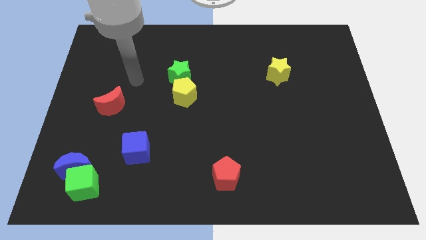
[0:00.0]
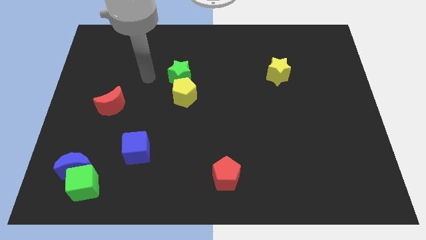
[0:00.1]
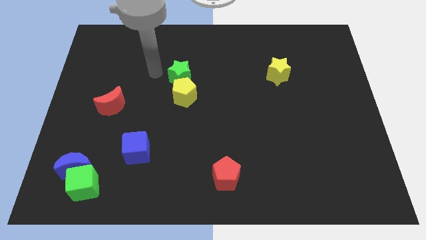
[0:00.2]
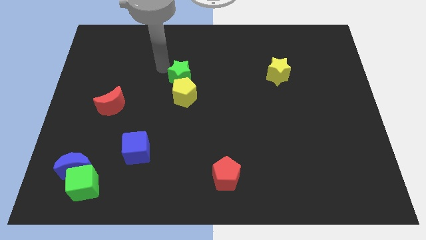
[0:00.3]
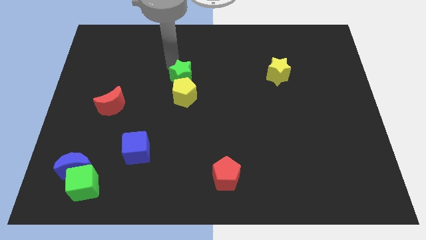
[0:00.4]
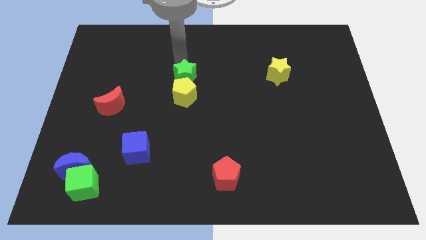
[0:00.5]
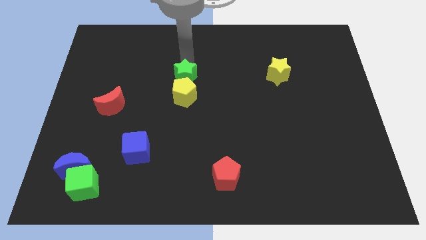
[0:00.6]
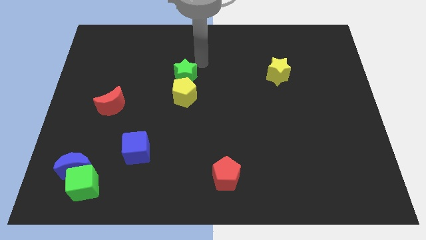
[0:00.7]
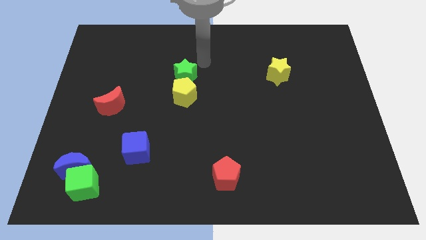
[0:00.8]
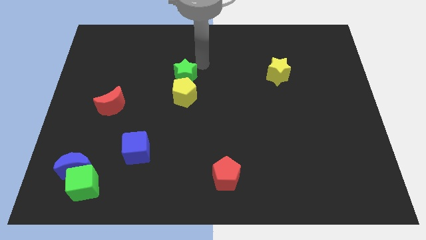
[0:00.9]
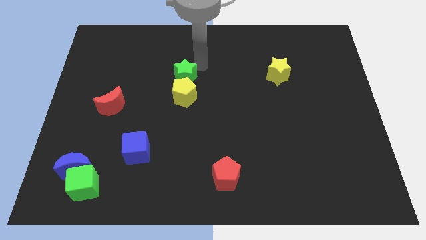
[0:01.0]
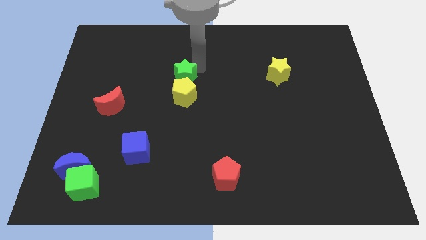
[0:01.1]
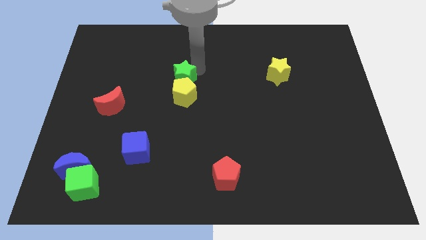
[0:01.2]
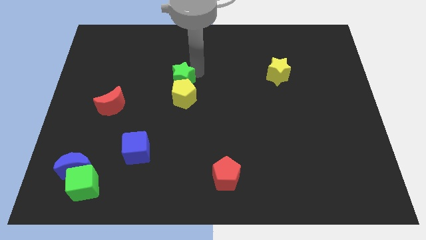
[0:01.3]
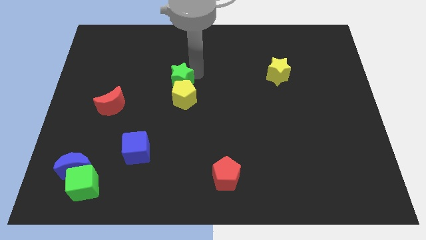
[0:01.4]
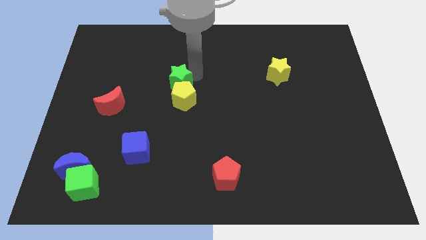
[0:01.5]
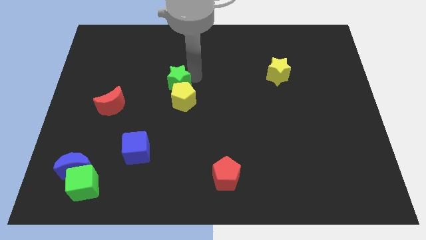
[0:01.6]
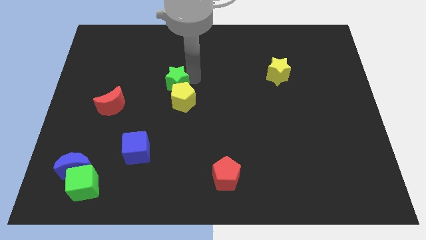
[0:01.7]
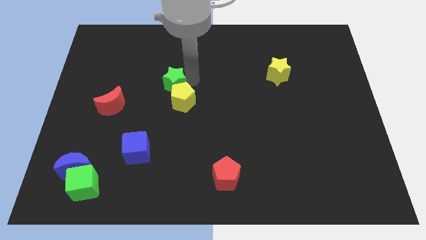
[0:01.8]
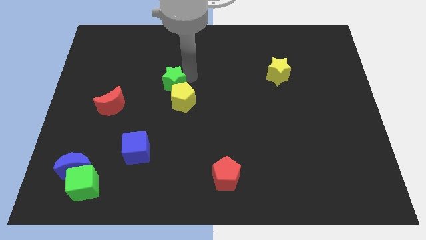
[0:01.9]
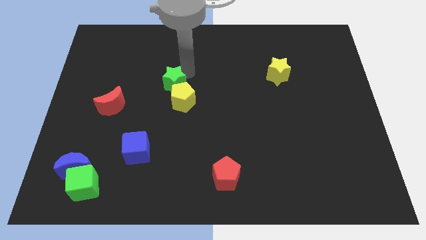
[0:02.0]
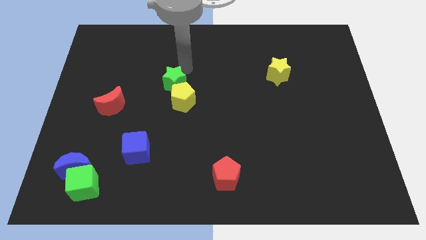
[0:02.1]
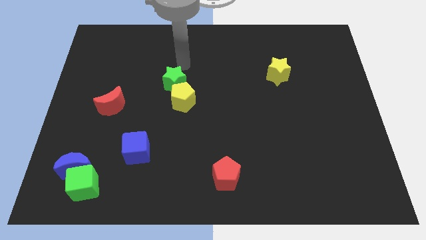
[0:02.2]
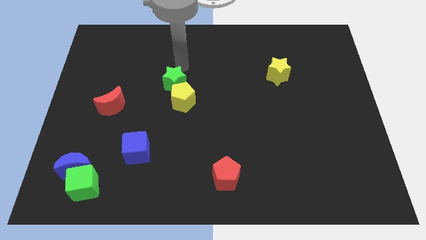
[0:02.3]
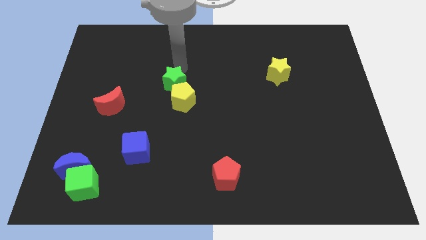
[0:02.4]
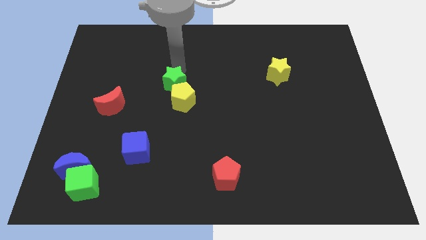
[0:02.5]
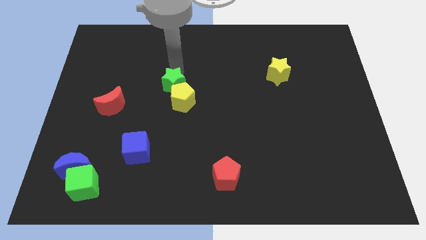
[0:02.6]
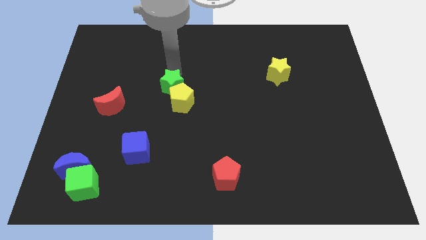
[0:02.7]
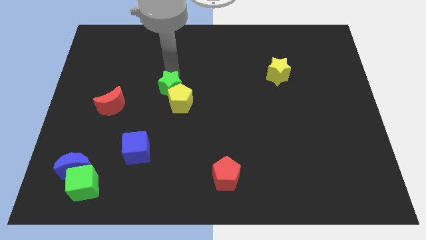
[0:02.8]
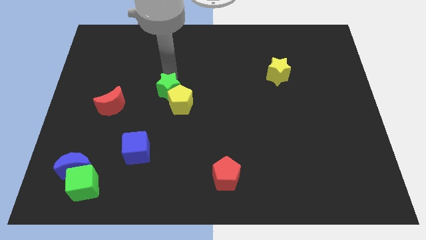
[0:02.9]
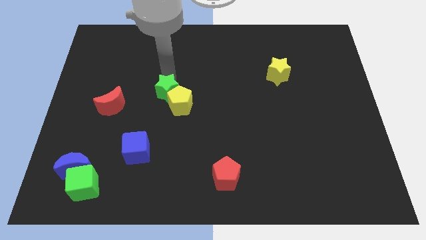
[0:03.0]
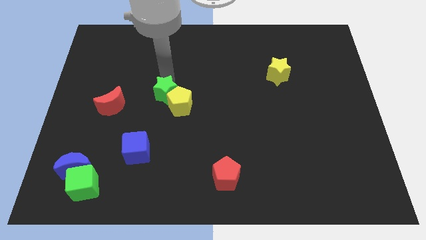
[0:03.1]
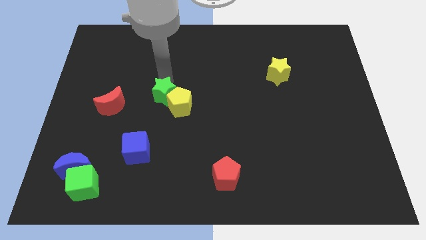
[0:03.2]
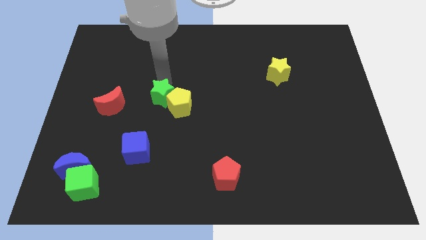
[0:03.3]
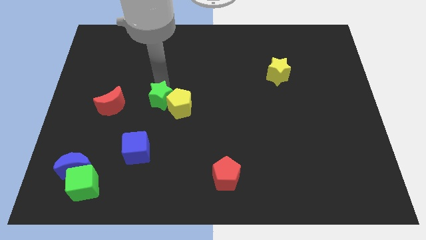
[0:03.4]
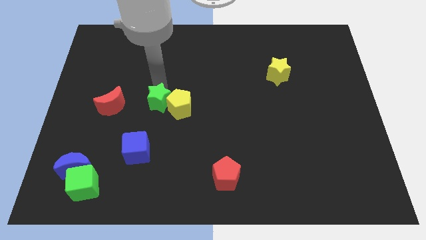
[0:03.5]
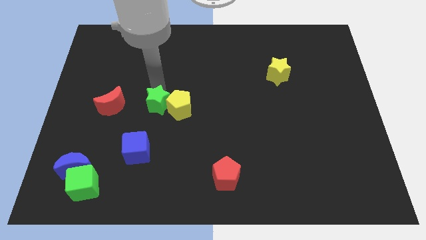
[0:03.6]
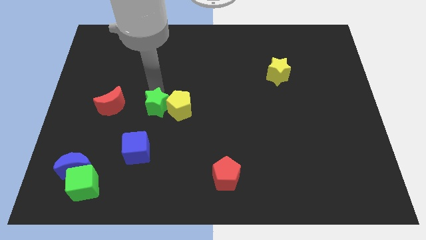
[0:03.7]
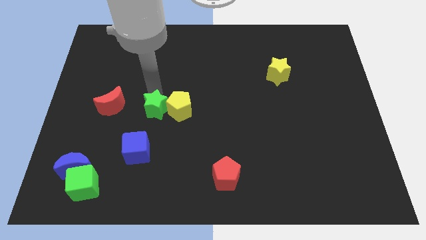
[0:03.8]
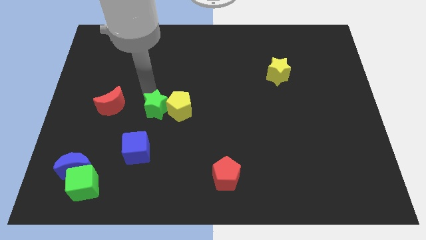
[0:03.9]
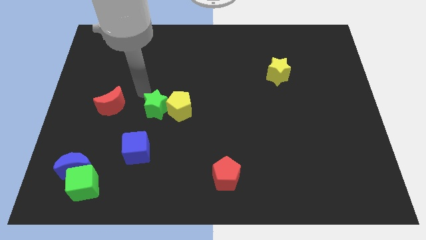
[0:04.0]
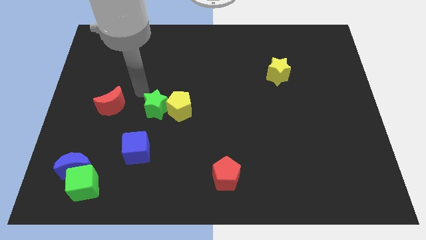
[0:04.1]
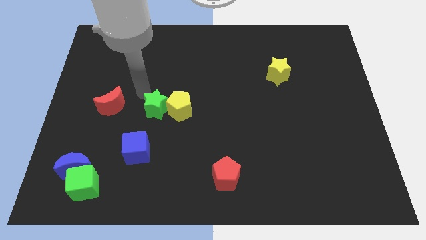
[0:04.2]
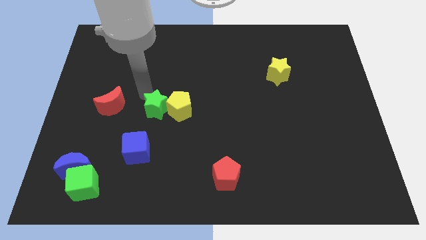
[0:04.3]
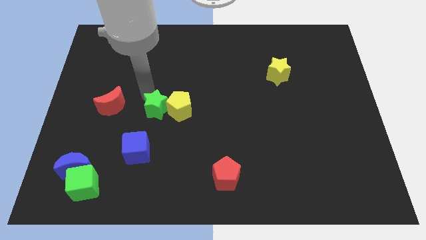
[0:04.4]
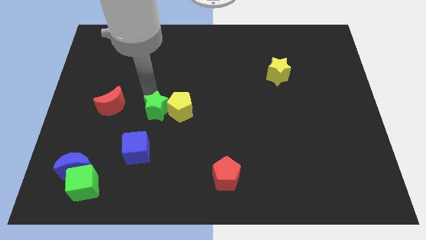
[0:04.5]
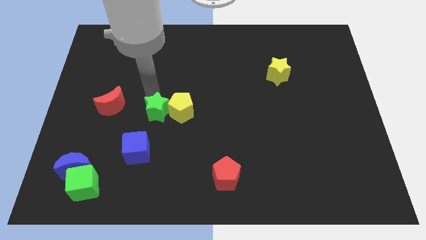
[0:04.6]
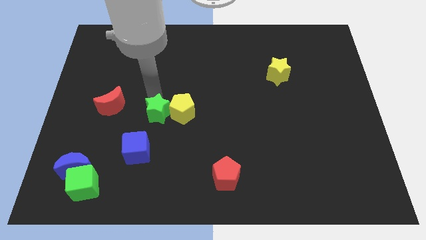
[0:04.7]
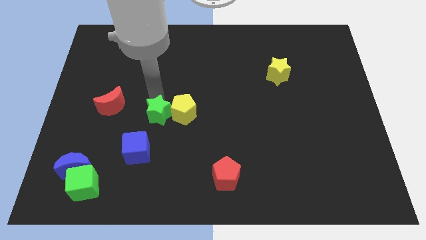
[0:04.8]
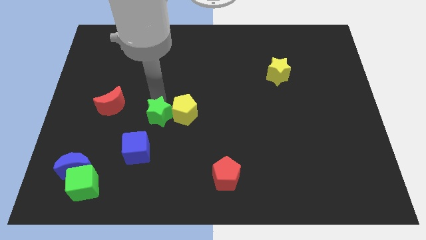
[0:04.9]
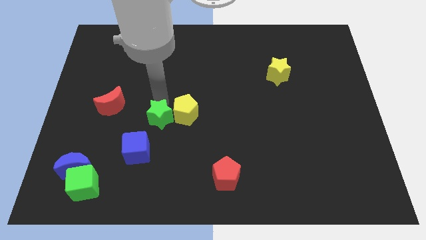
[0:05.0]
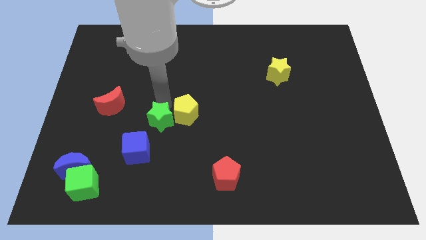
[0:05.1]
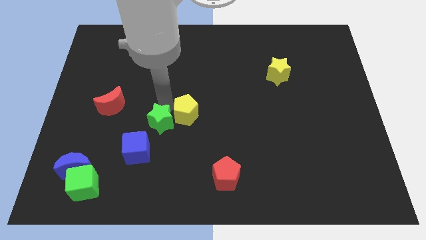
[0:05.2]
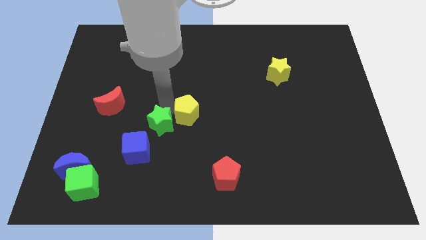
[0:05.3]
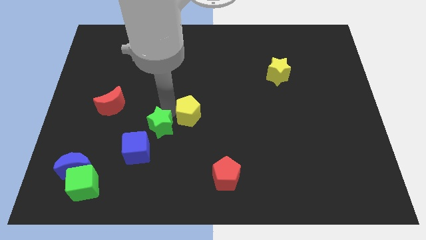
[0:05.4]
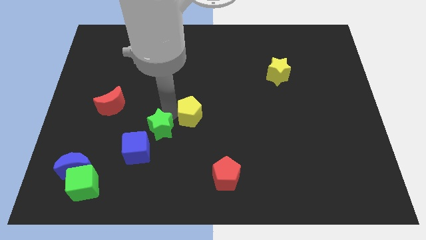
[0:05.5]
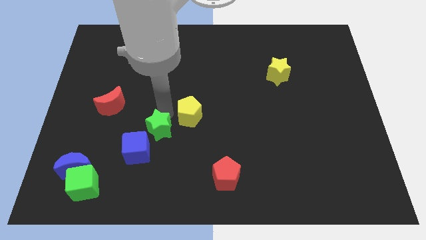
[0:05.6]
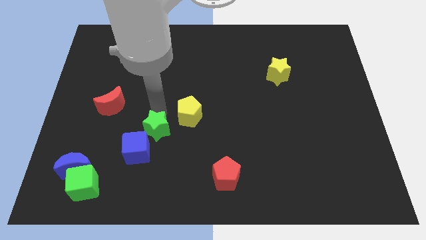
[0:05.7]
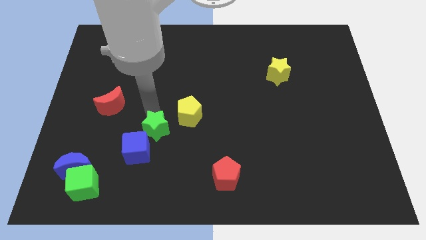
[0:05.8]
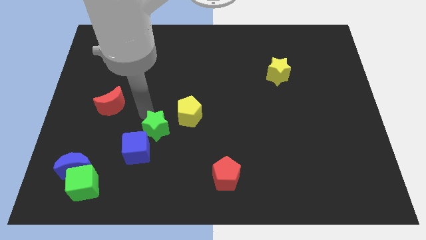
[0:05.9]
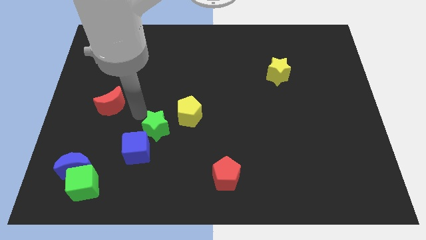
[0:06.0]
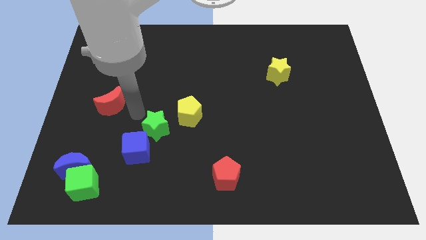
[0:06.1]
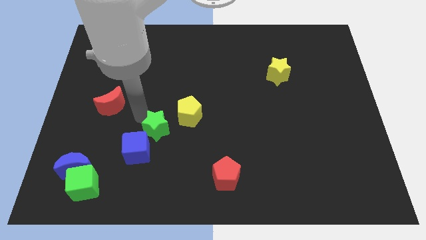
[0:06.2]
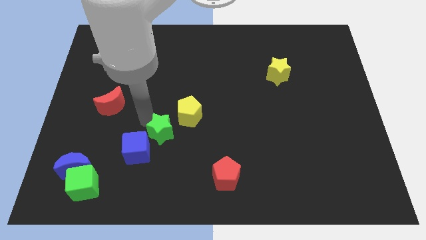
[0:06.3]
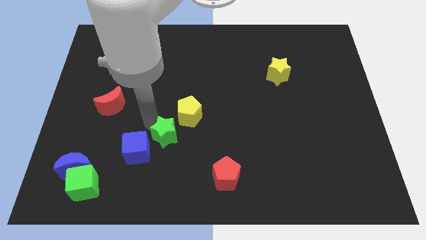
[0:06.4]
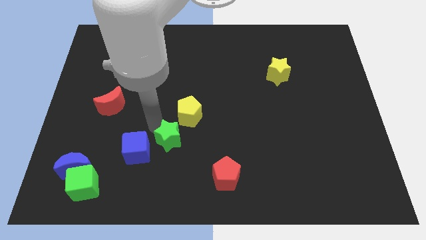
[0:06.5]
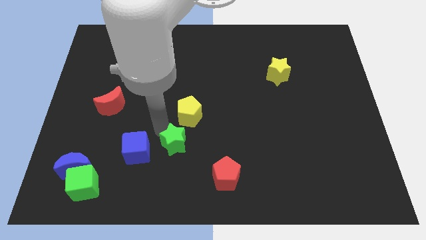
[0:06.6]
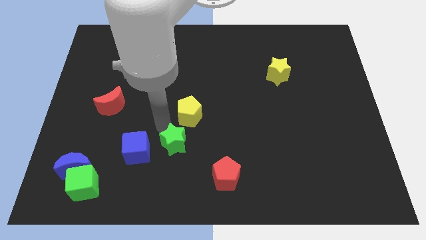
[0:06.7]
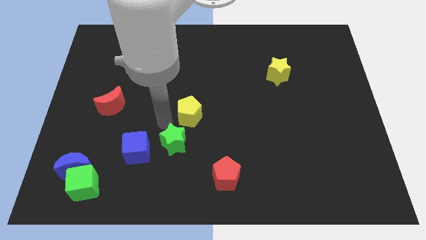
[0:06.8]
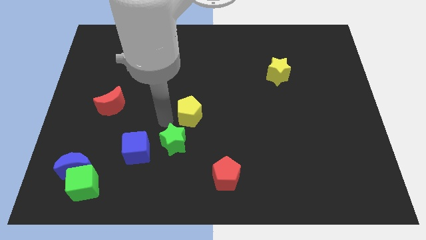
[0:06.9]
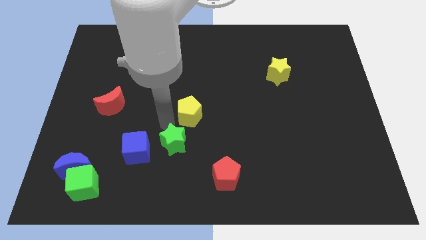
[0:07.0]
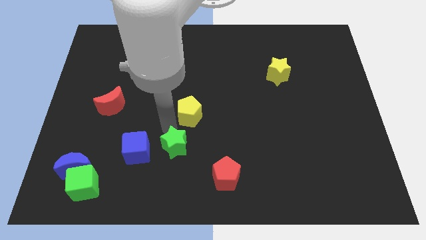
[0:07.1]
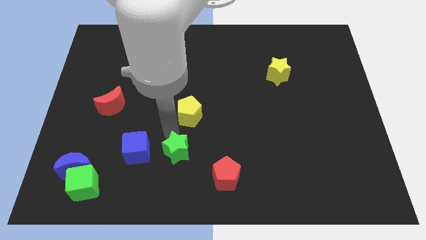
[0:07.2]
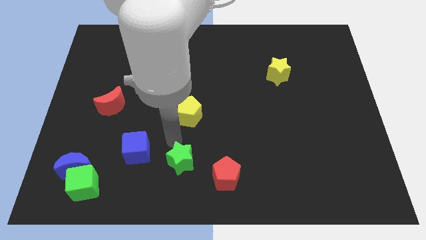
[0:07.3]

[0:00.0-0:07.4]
put the green star to the bottom
